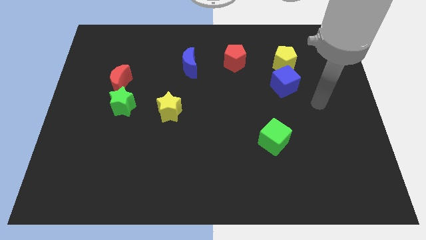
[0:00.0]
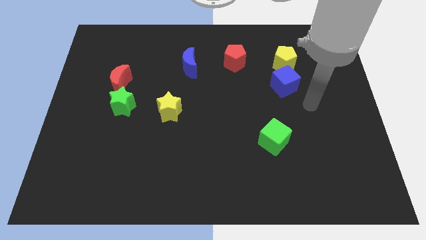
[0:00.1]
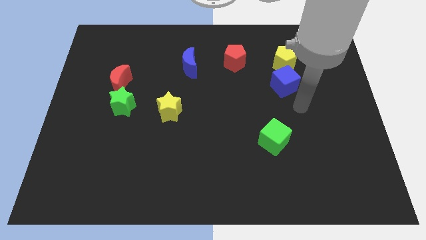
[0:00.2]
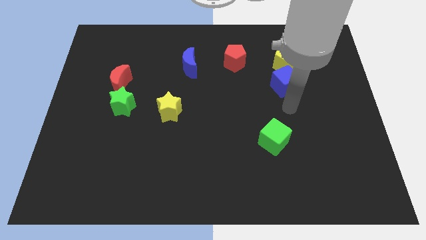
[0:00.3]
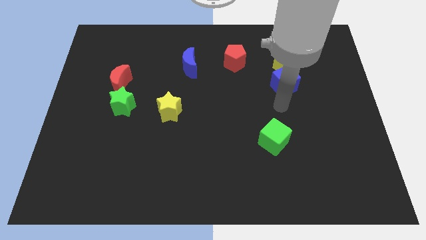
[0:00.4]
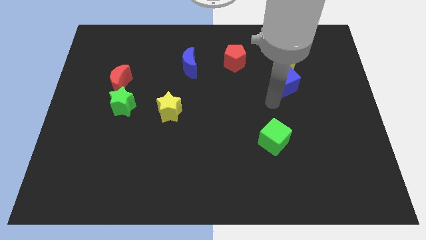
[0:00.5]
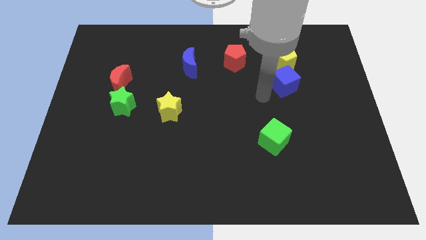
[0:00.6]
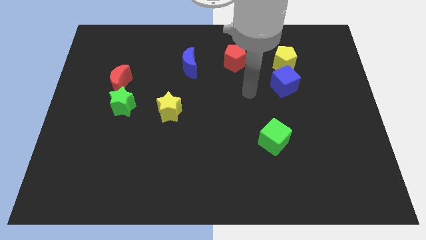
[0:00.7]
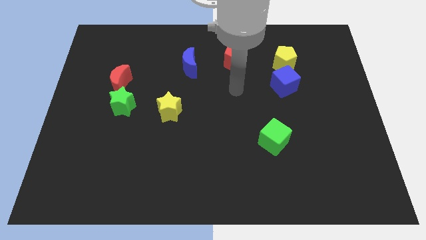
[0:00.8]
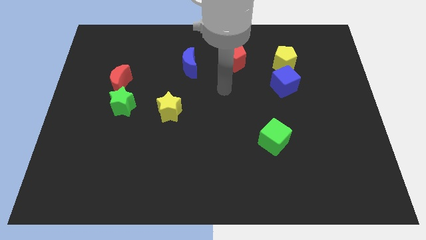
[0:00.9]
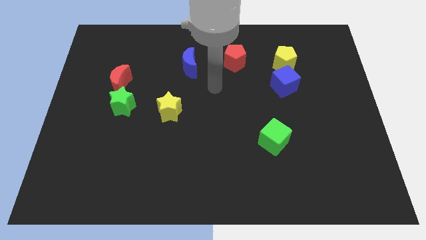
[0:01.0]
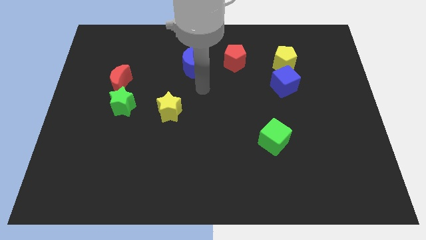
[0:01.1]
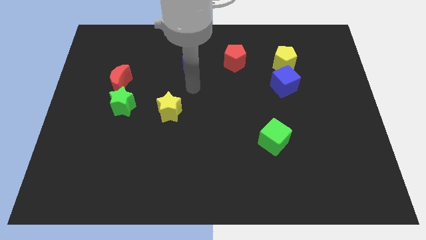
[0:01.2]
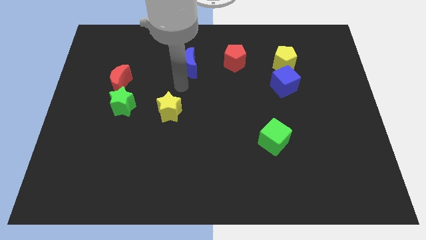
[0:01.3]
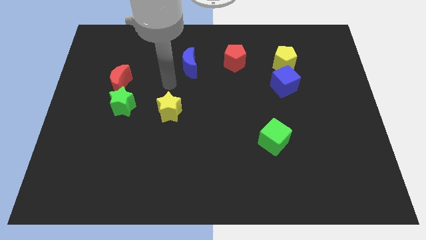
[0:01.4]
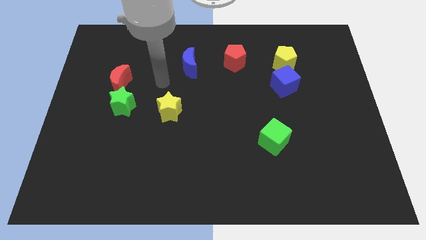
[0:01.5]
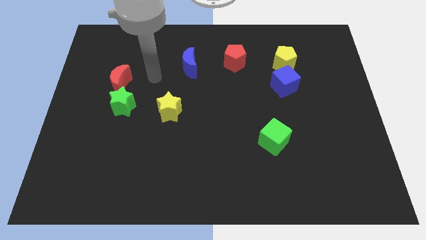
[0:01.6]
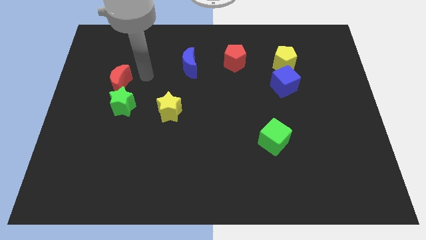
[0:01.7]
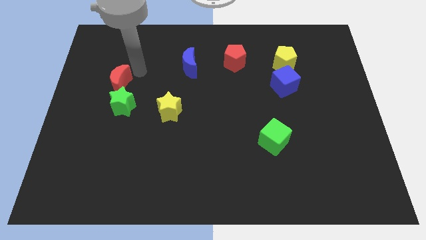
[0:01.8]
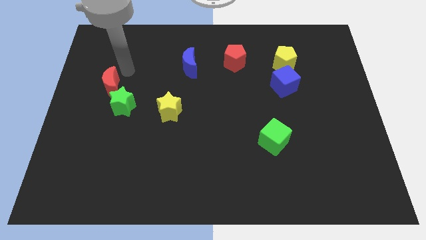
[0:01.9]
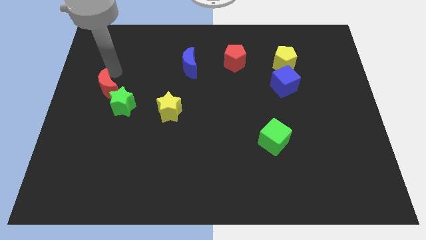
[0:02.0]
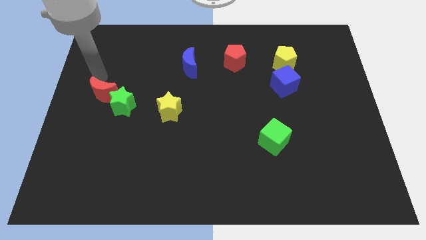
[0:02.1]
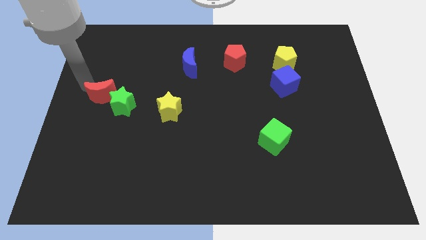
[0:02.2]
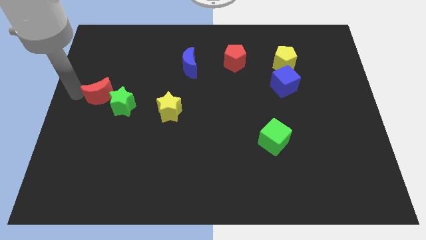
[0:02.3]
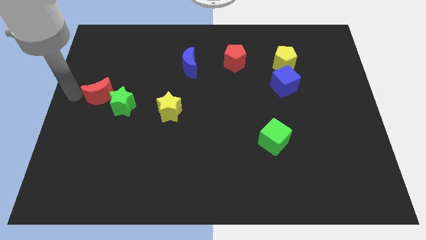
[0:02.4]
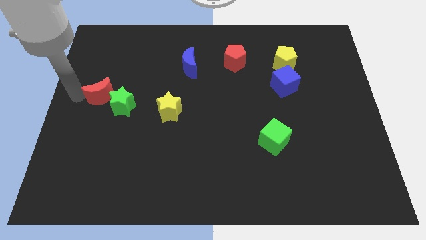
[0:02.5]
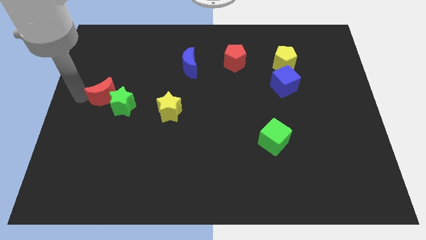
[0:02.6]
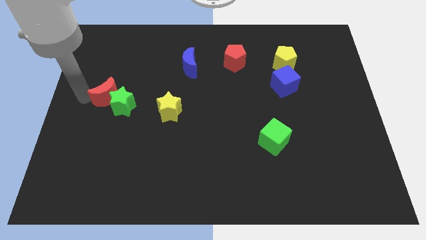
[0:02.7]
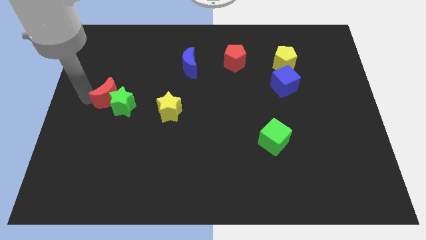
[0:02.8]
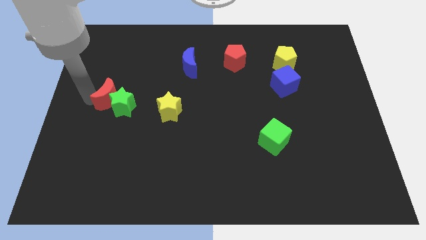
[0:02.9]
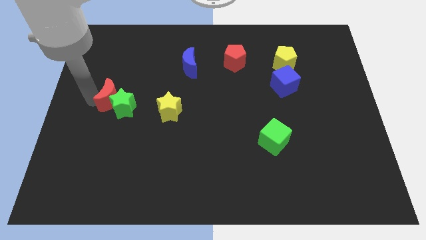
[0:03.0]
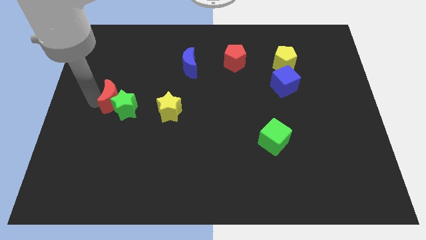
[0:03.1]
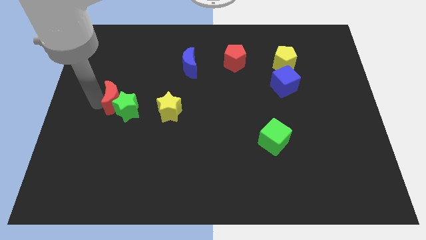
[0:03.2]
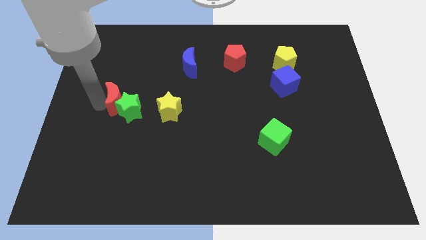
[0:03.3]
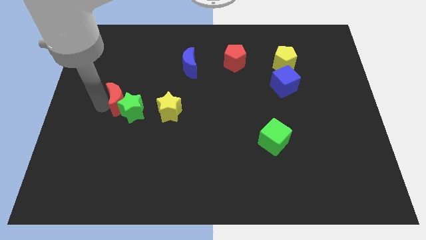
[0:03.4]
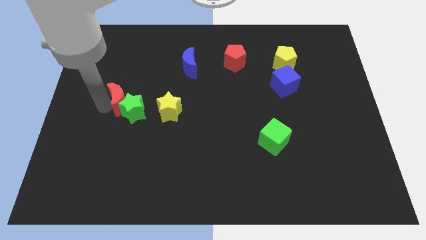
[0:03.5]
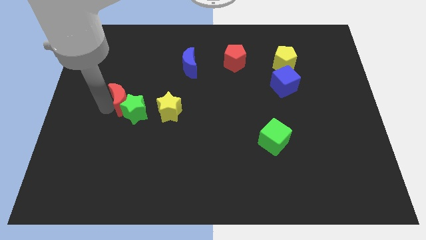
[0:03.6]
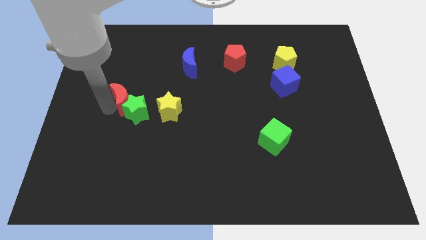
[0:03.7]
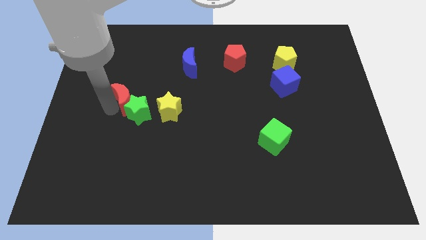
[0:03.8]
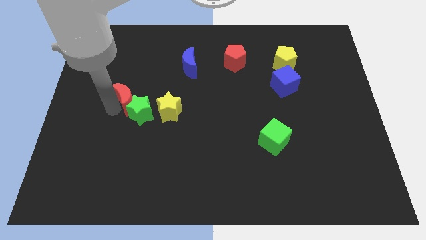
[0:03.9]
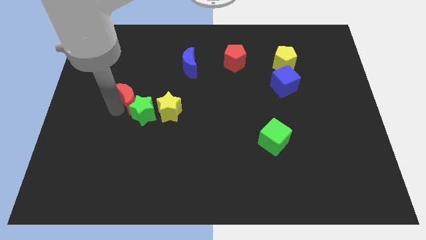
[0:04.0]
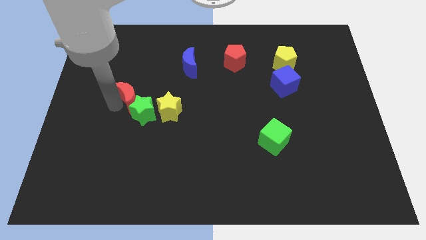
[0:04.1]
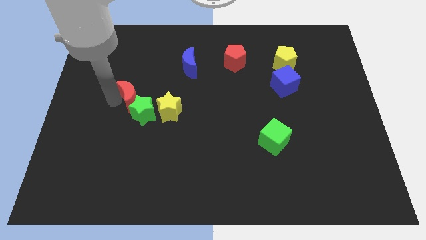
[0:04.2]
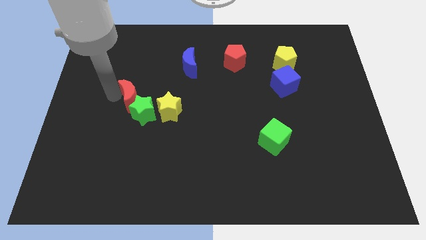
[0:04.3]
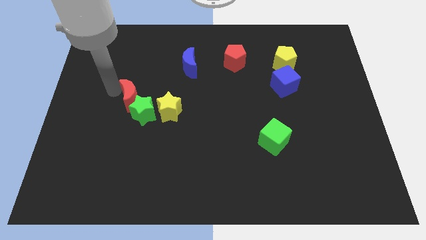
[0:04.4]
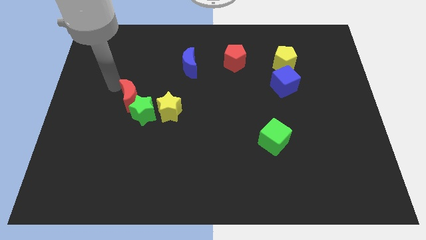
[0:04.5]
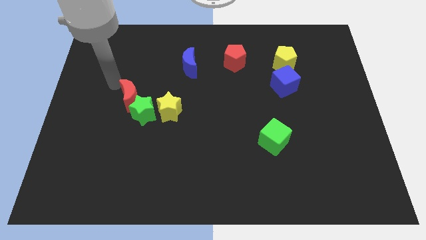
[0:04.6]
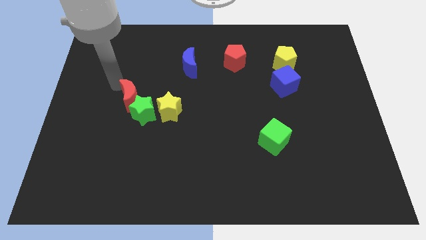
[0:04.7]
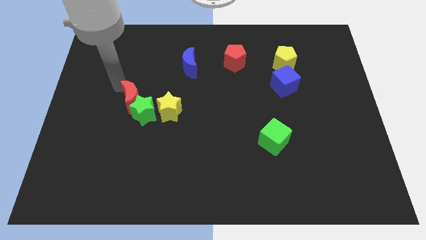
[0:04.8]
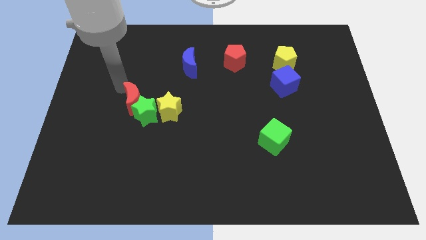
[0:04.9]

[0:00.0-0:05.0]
push the red moon down and then to the right a little bit

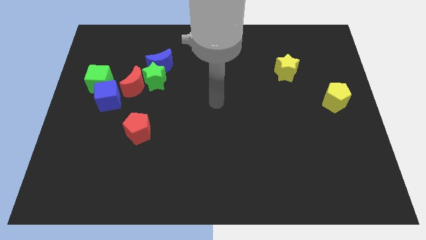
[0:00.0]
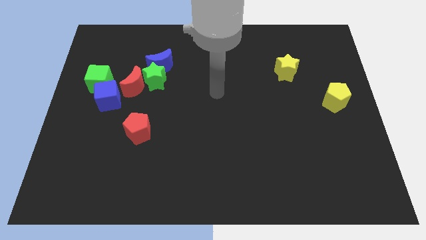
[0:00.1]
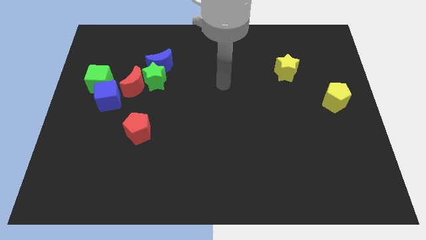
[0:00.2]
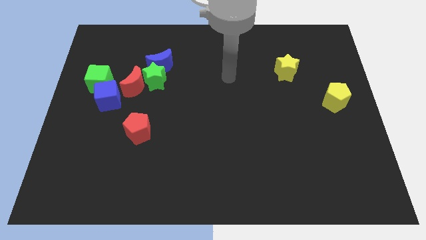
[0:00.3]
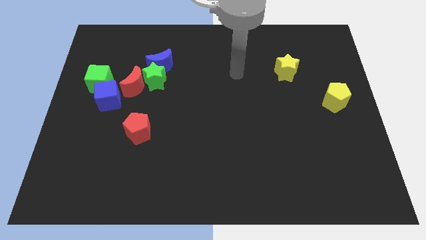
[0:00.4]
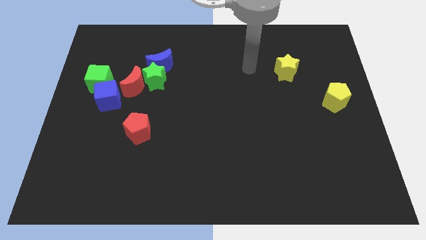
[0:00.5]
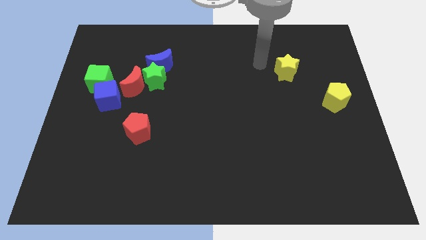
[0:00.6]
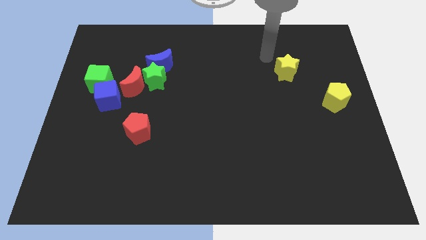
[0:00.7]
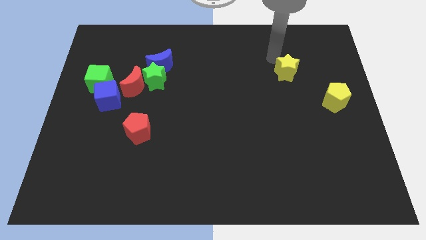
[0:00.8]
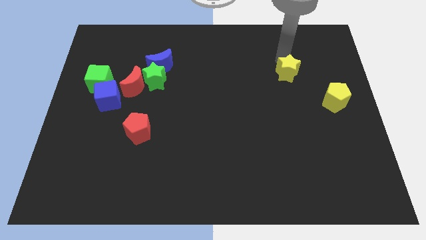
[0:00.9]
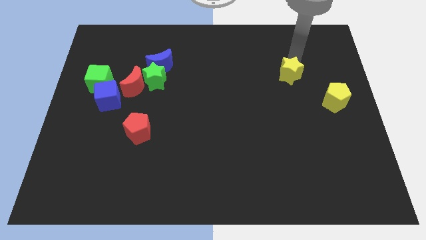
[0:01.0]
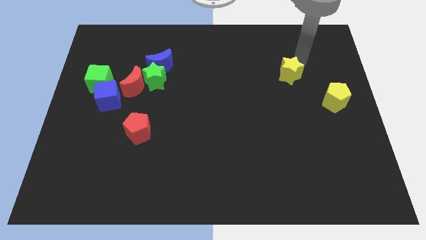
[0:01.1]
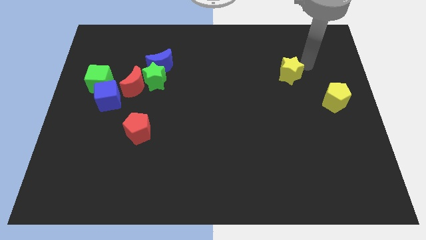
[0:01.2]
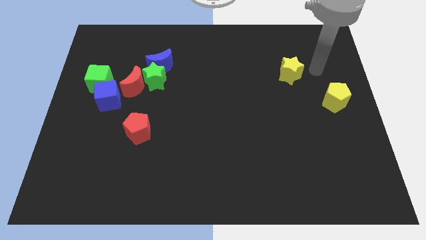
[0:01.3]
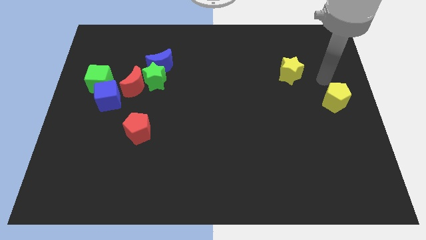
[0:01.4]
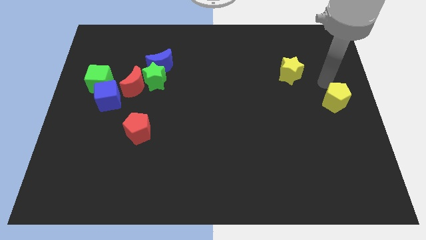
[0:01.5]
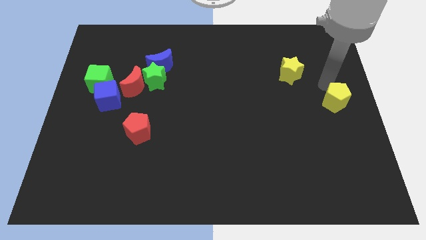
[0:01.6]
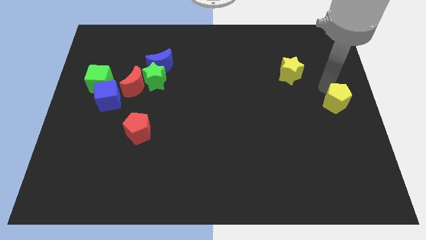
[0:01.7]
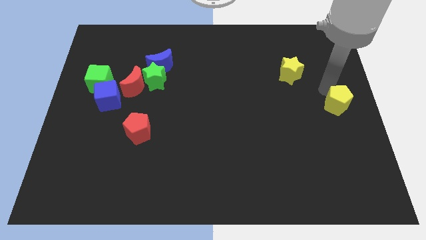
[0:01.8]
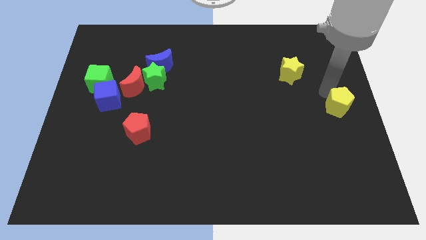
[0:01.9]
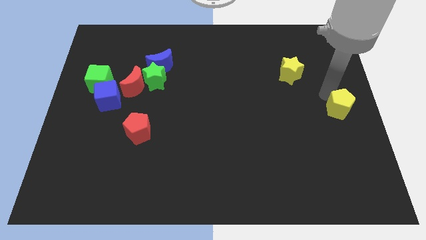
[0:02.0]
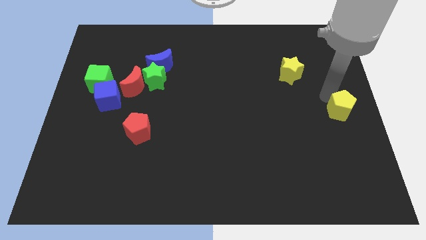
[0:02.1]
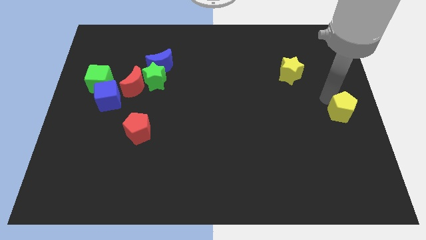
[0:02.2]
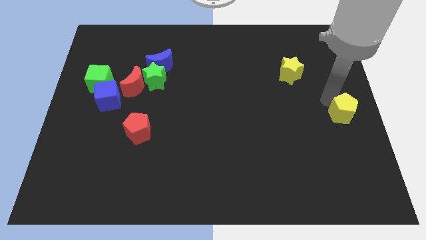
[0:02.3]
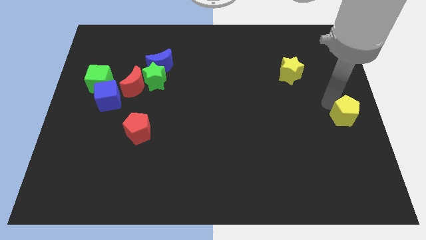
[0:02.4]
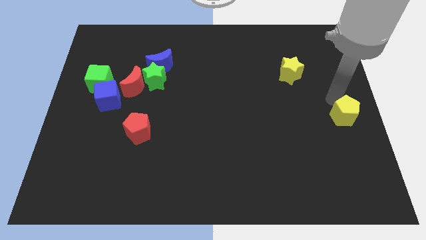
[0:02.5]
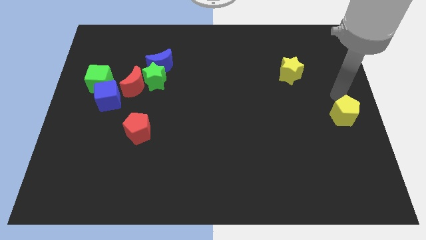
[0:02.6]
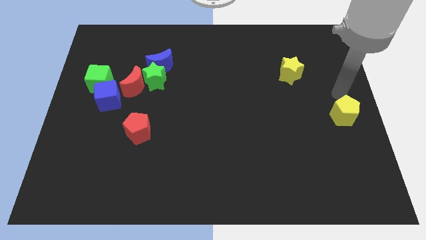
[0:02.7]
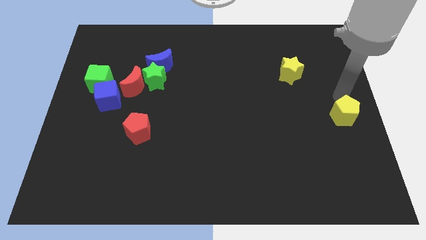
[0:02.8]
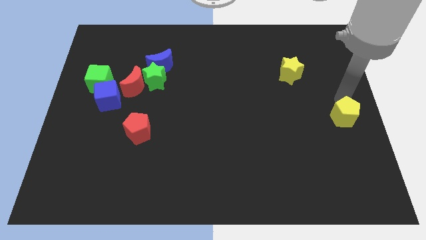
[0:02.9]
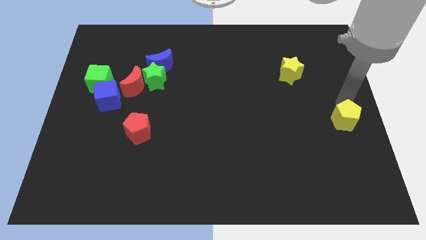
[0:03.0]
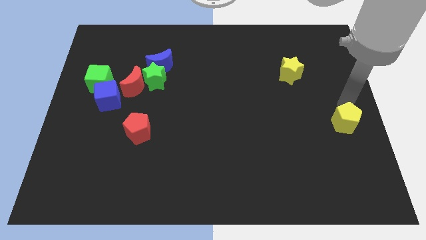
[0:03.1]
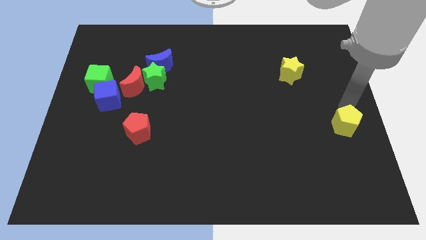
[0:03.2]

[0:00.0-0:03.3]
push the yellow pentagon downwards slightly
